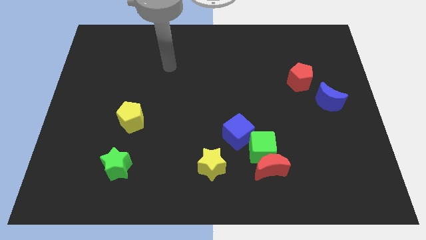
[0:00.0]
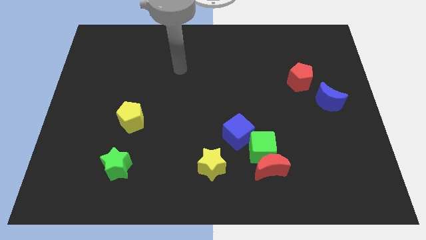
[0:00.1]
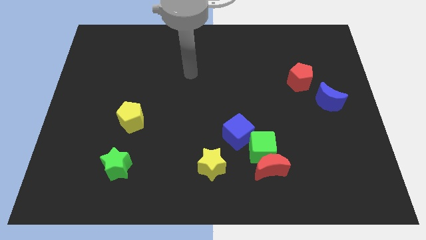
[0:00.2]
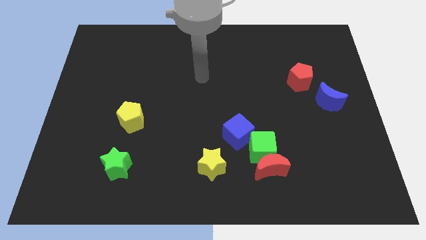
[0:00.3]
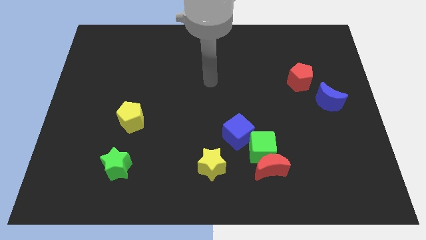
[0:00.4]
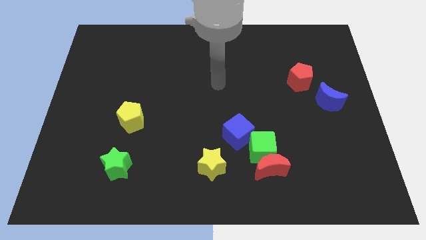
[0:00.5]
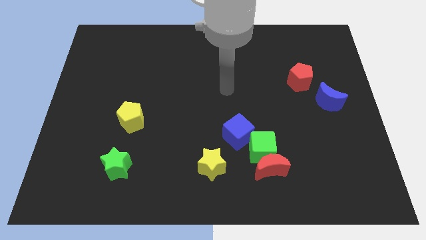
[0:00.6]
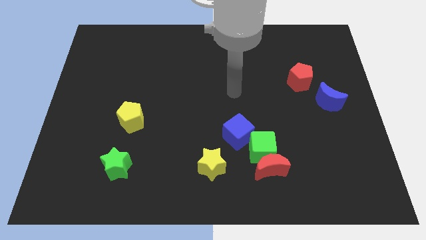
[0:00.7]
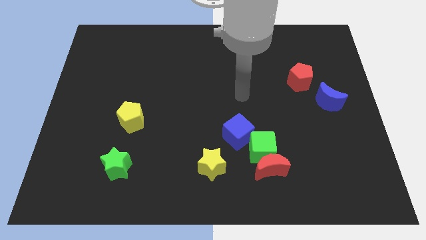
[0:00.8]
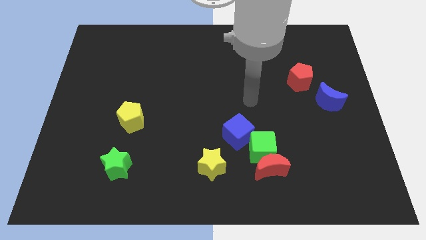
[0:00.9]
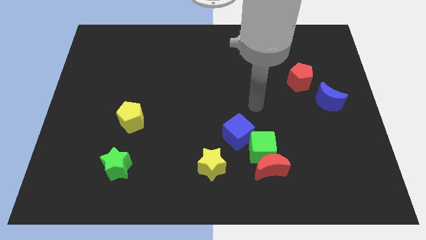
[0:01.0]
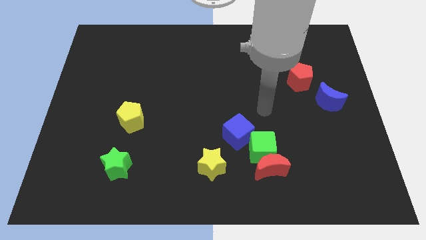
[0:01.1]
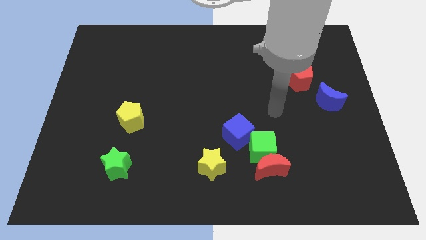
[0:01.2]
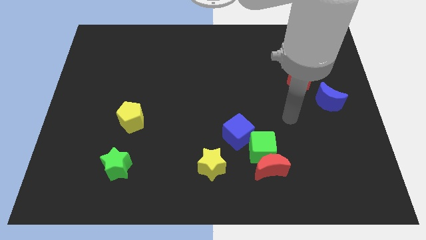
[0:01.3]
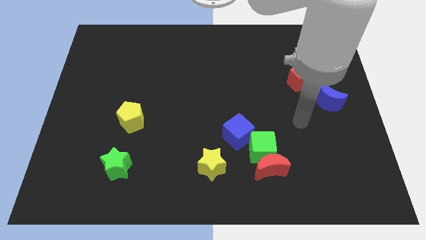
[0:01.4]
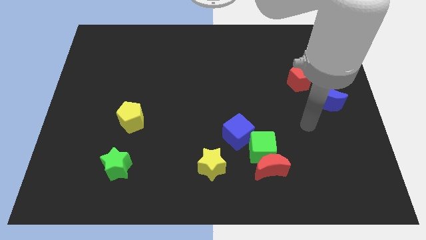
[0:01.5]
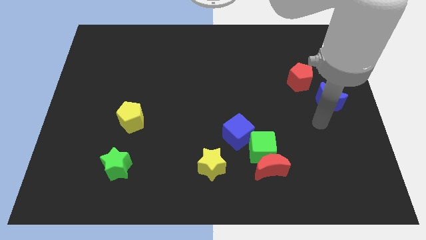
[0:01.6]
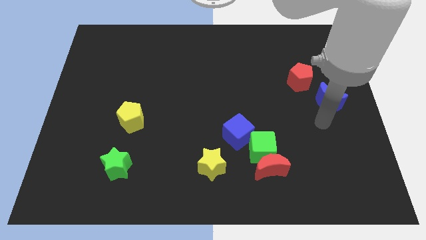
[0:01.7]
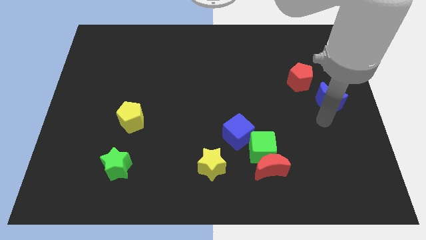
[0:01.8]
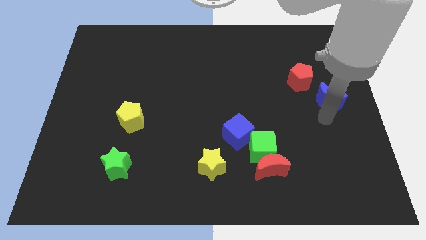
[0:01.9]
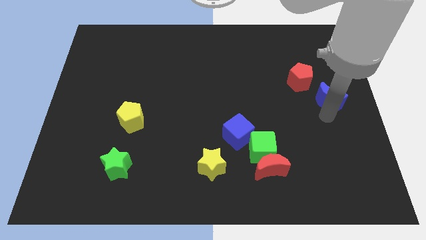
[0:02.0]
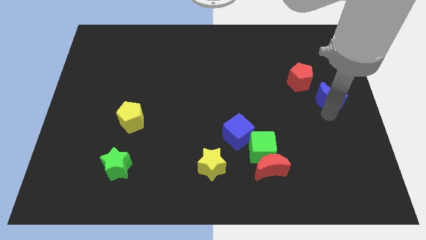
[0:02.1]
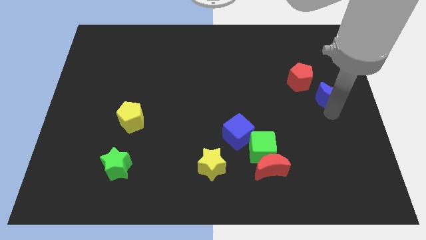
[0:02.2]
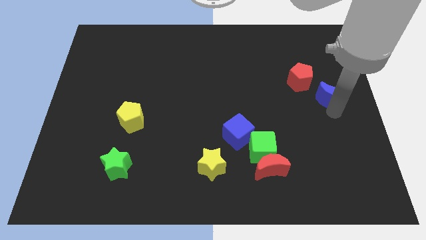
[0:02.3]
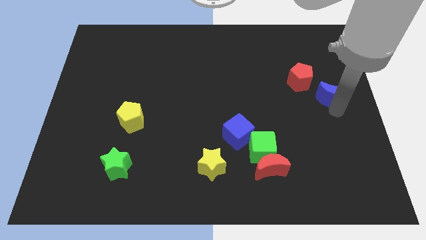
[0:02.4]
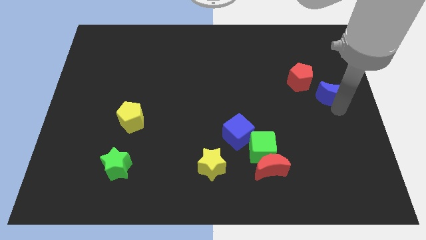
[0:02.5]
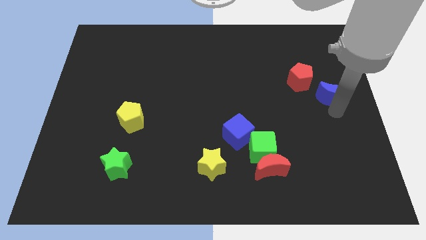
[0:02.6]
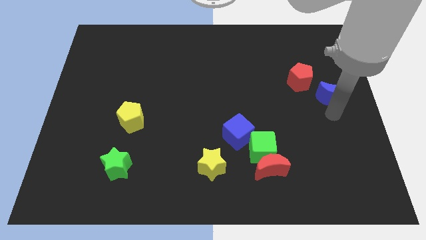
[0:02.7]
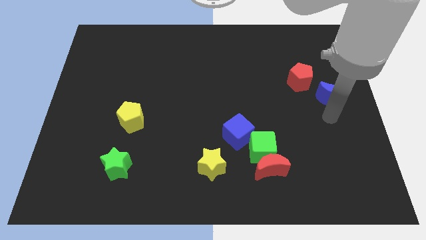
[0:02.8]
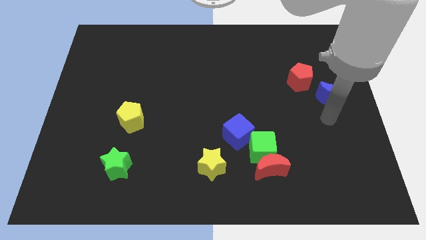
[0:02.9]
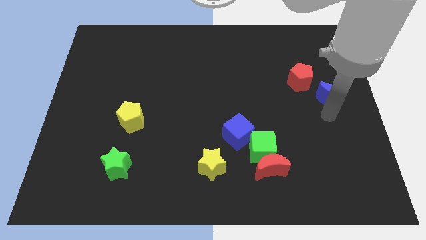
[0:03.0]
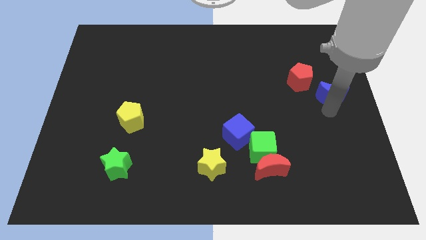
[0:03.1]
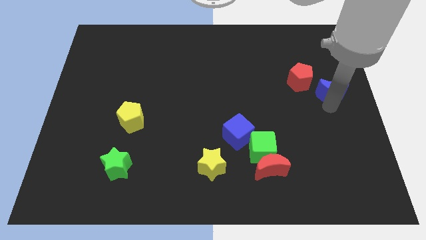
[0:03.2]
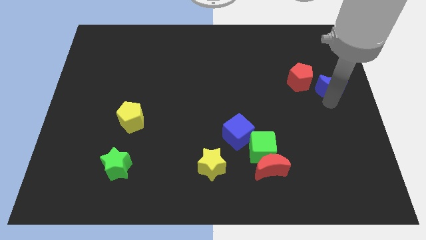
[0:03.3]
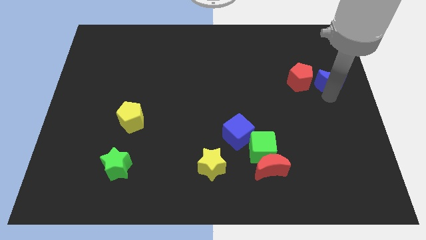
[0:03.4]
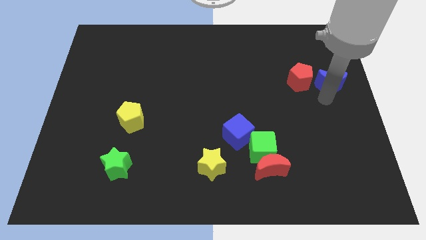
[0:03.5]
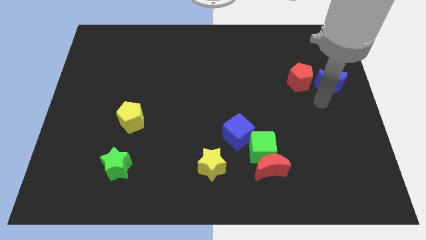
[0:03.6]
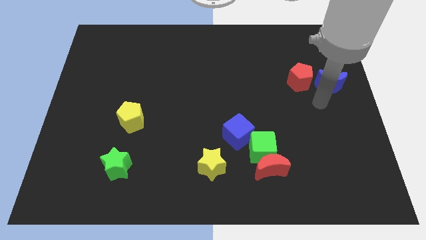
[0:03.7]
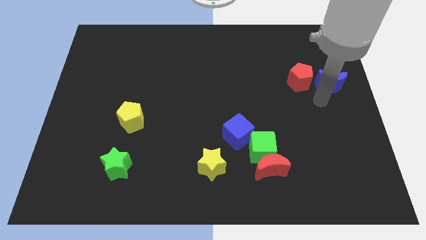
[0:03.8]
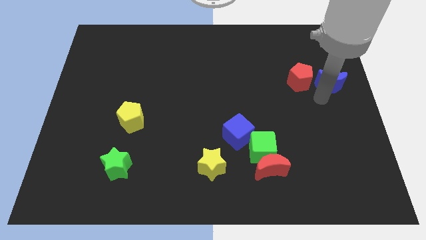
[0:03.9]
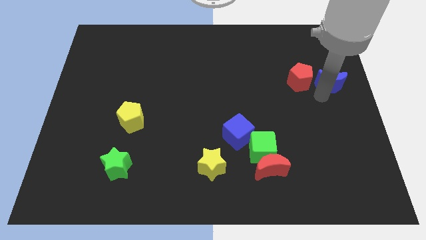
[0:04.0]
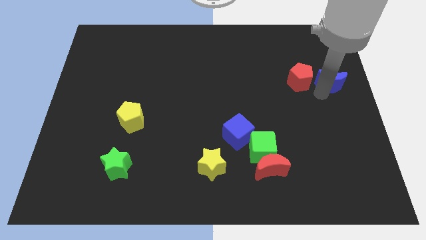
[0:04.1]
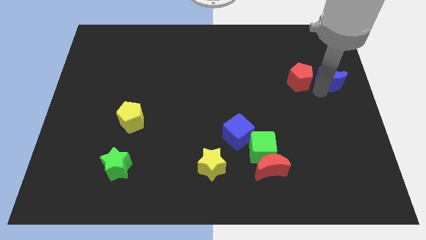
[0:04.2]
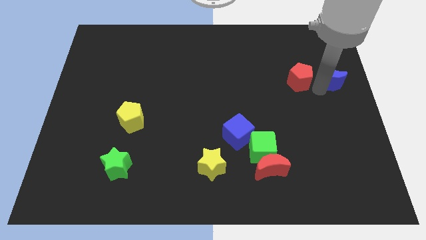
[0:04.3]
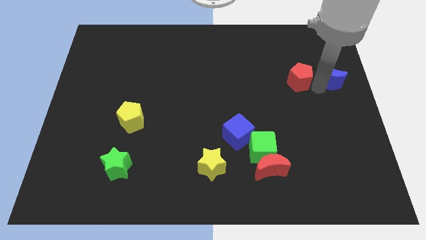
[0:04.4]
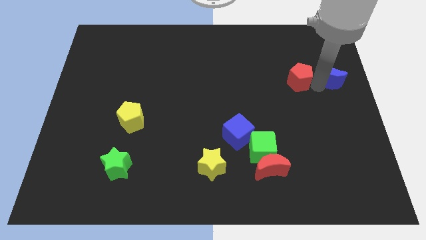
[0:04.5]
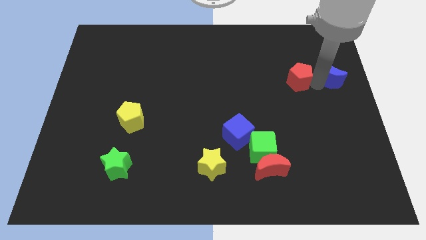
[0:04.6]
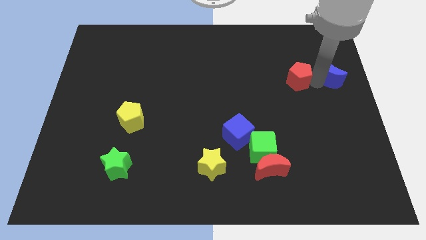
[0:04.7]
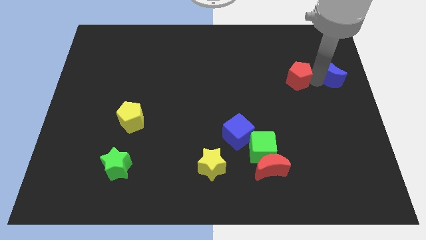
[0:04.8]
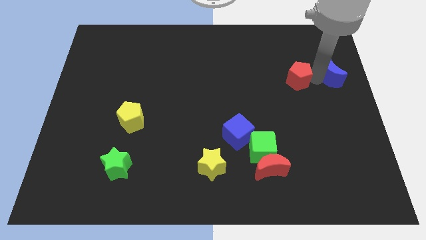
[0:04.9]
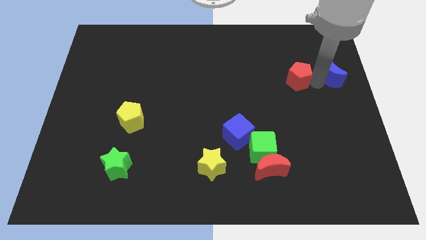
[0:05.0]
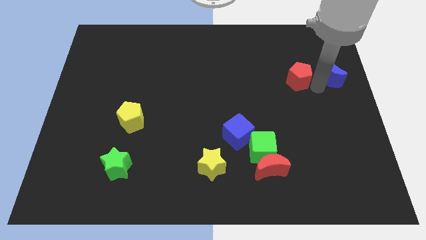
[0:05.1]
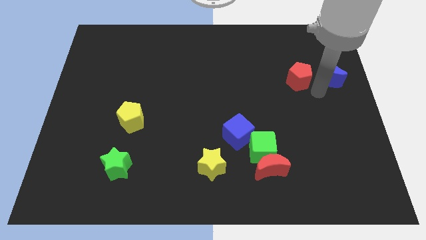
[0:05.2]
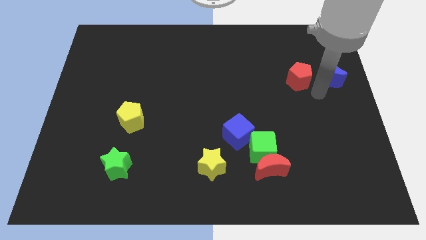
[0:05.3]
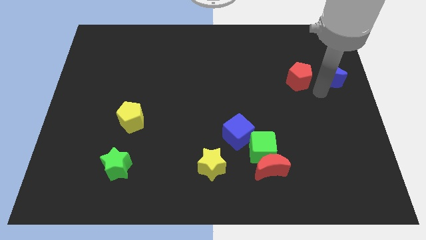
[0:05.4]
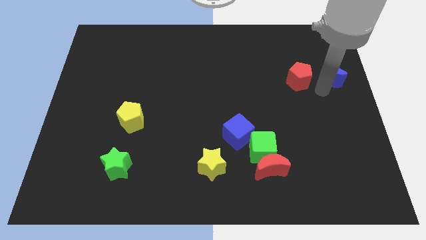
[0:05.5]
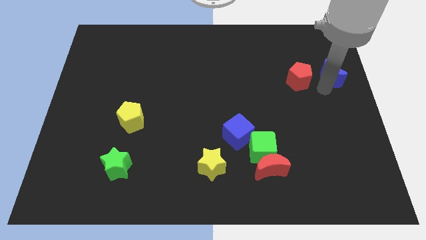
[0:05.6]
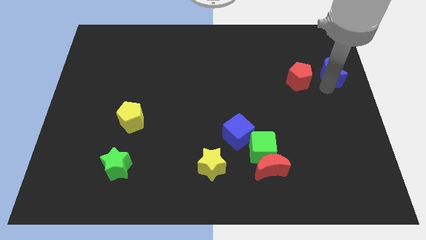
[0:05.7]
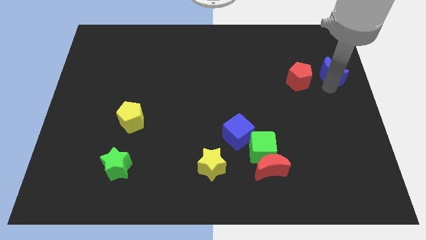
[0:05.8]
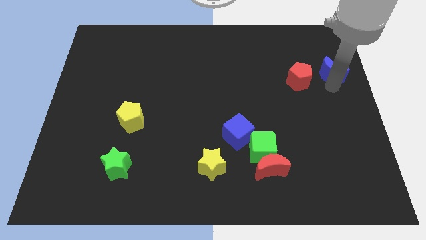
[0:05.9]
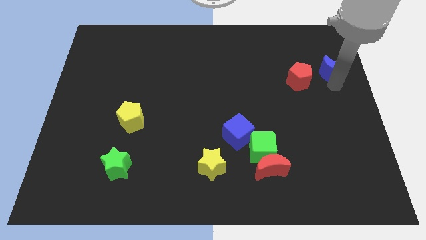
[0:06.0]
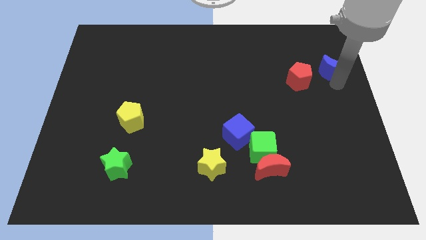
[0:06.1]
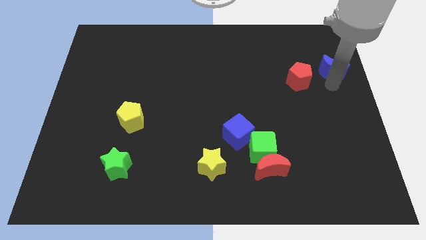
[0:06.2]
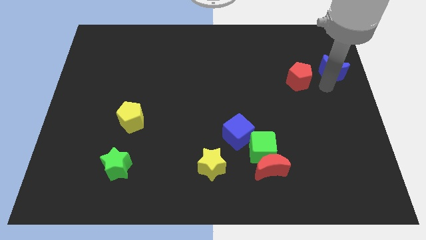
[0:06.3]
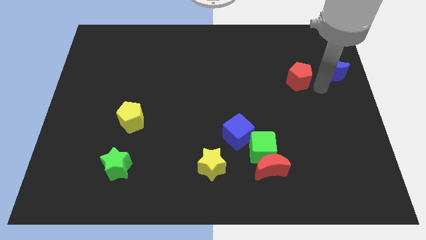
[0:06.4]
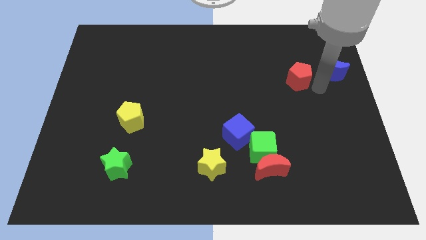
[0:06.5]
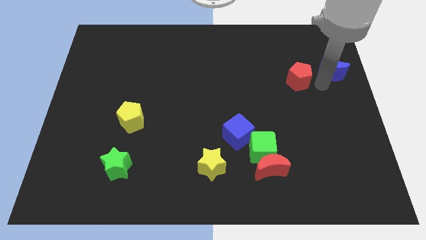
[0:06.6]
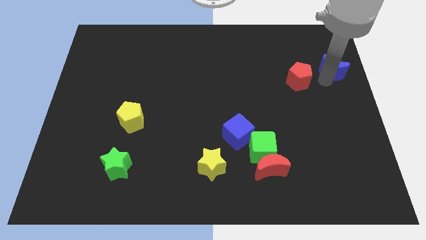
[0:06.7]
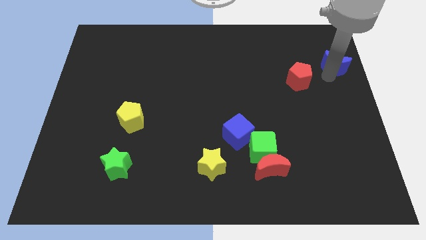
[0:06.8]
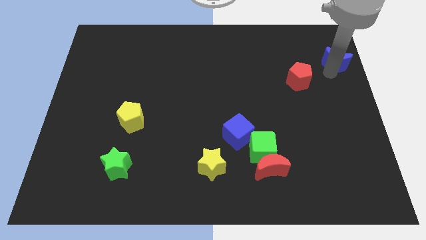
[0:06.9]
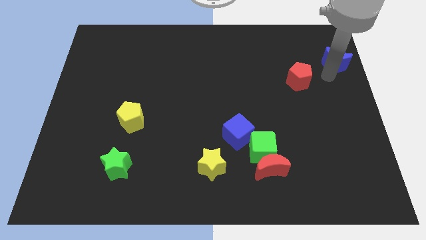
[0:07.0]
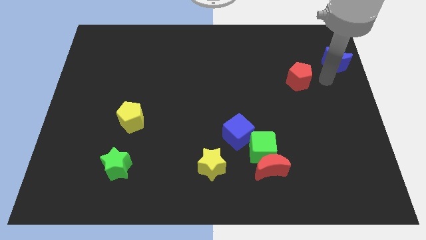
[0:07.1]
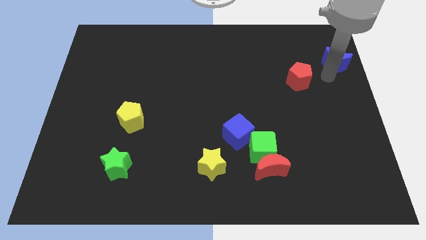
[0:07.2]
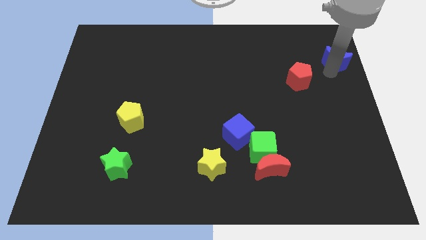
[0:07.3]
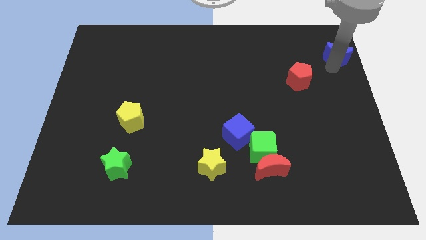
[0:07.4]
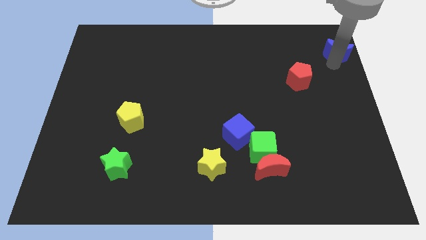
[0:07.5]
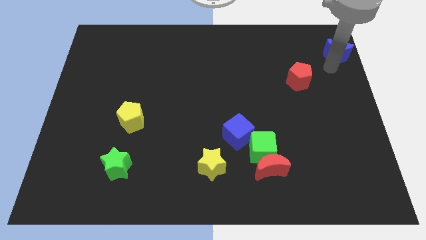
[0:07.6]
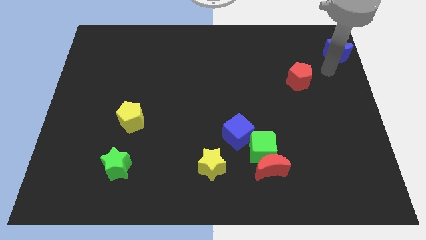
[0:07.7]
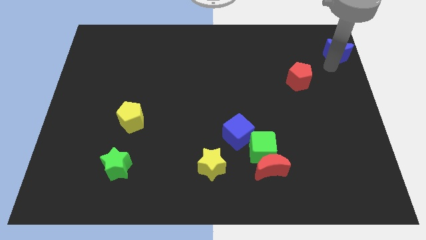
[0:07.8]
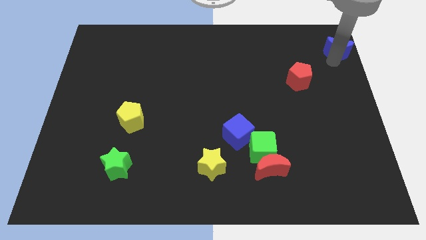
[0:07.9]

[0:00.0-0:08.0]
put the blue moon to the upper right corner
